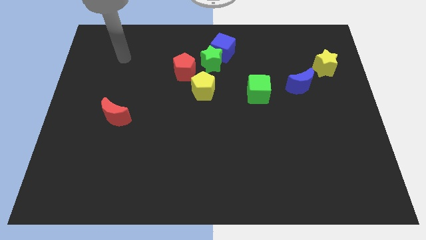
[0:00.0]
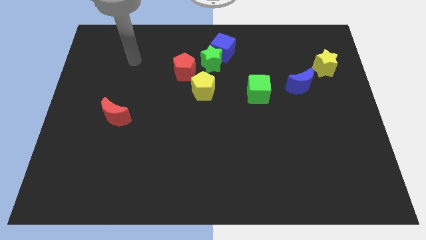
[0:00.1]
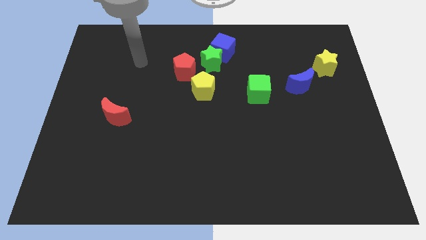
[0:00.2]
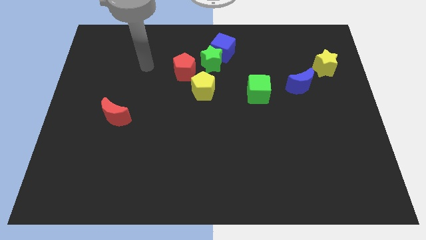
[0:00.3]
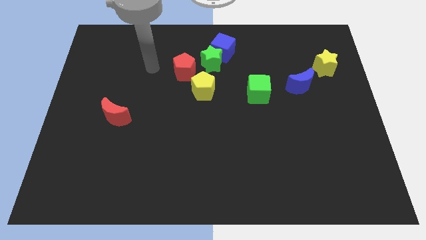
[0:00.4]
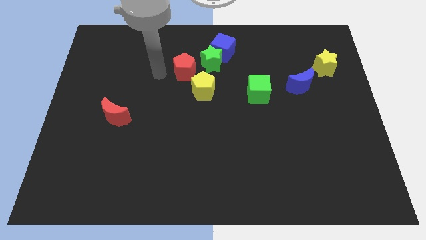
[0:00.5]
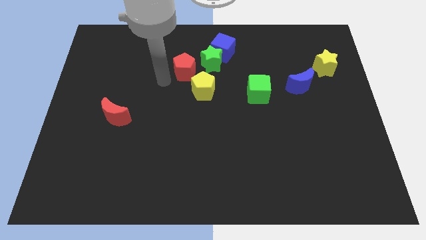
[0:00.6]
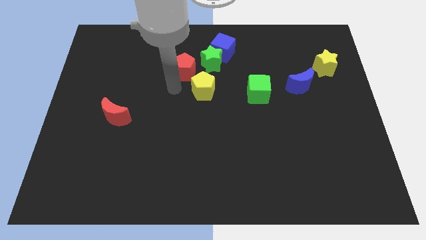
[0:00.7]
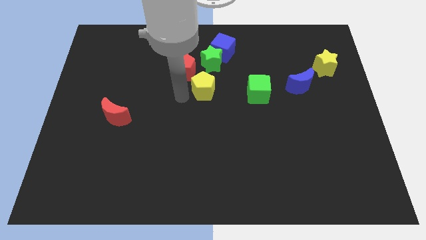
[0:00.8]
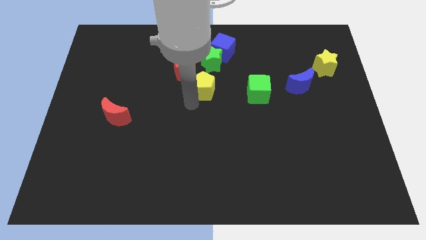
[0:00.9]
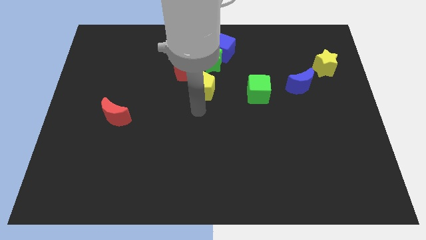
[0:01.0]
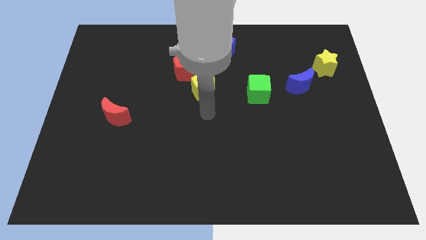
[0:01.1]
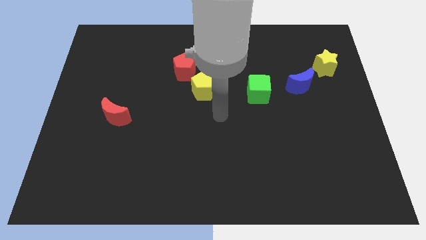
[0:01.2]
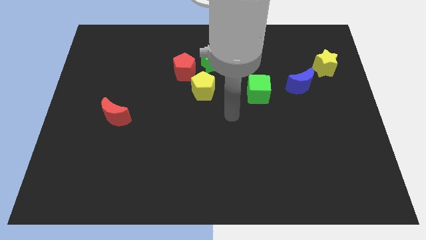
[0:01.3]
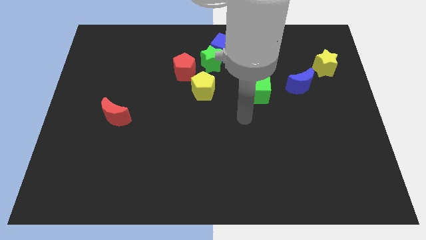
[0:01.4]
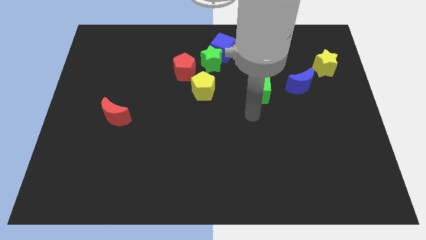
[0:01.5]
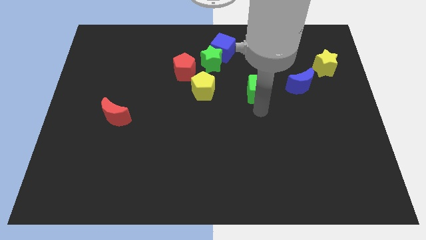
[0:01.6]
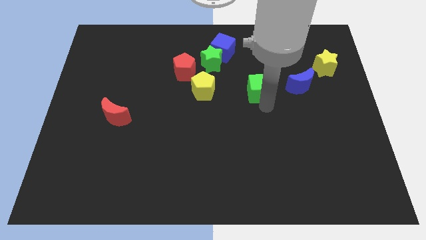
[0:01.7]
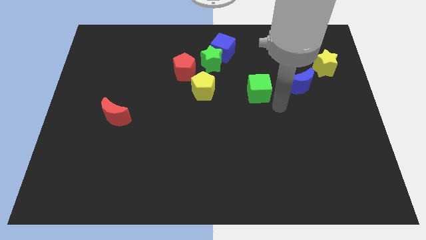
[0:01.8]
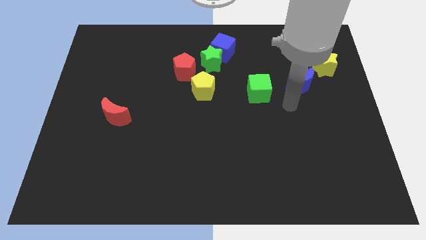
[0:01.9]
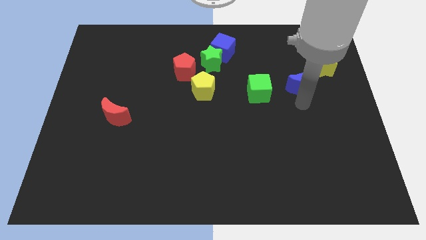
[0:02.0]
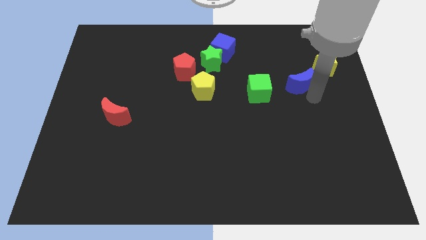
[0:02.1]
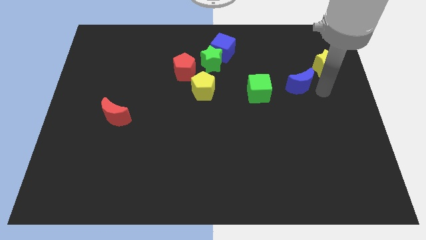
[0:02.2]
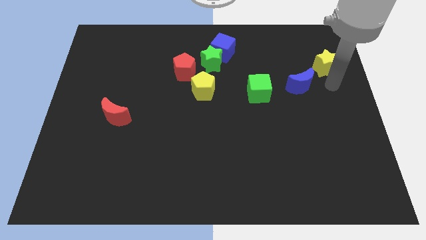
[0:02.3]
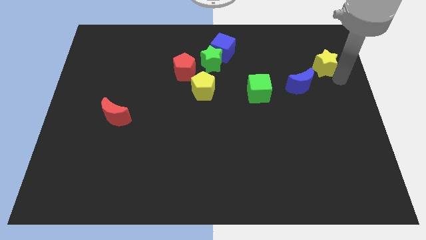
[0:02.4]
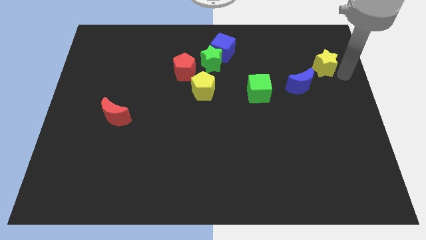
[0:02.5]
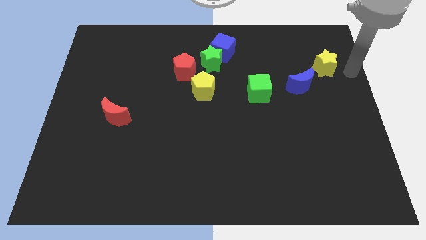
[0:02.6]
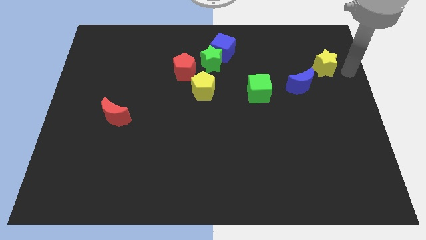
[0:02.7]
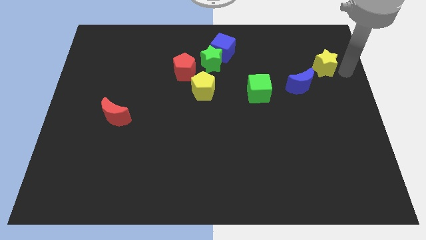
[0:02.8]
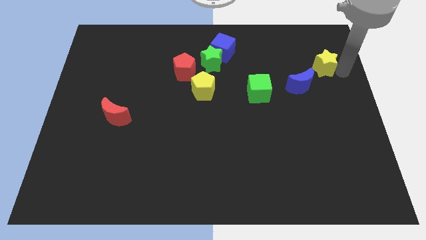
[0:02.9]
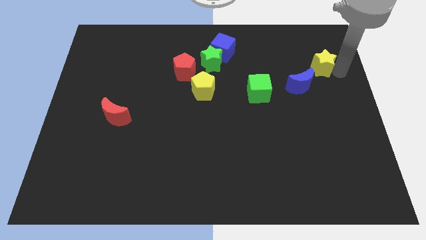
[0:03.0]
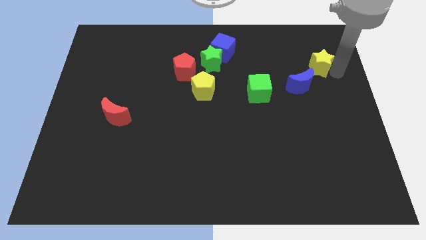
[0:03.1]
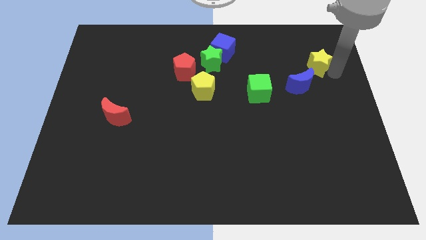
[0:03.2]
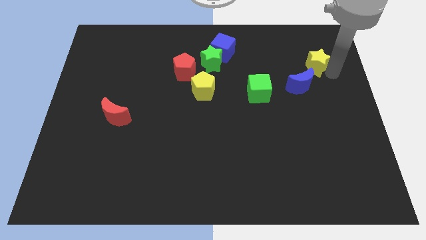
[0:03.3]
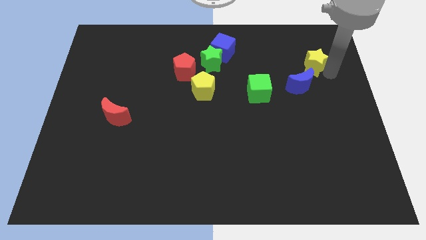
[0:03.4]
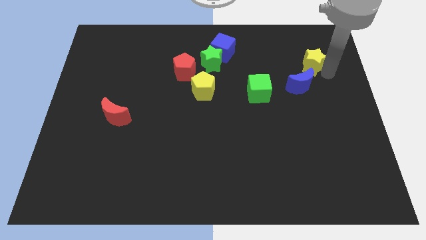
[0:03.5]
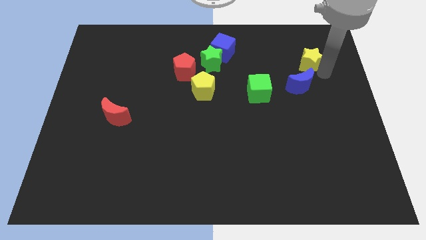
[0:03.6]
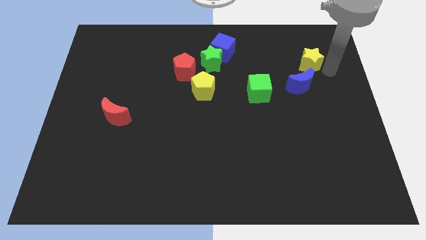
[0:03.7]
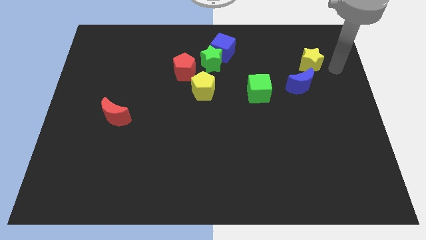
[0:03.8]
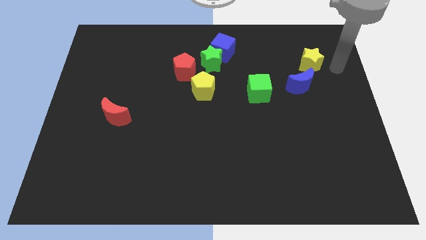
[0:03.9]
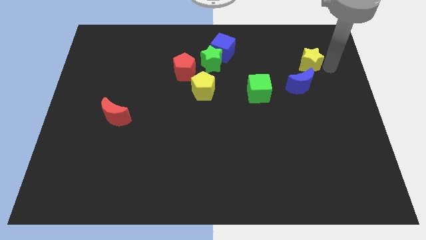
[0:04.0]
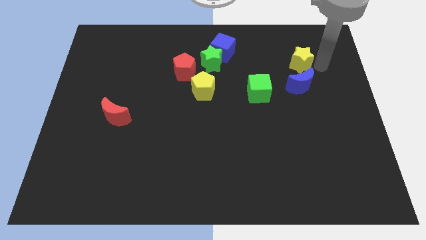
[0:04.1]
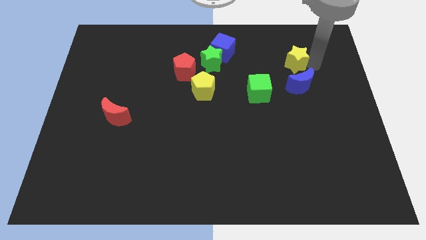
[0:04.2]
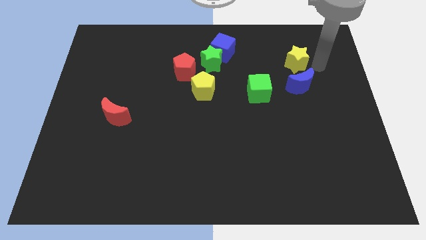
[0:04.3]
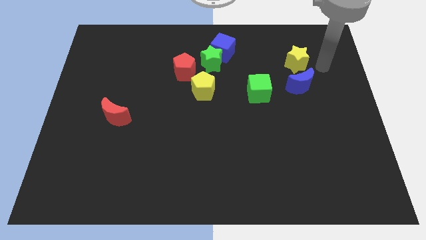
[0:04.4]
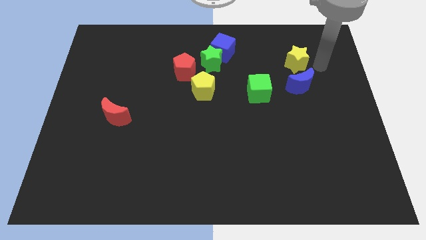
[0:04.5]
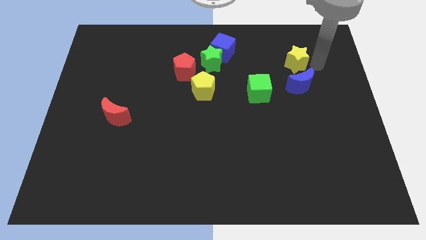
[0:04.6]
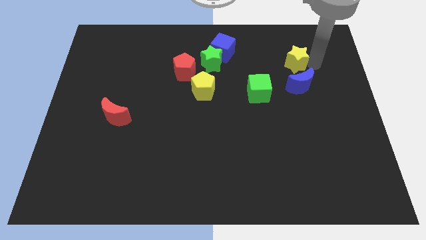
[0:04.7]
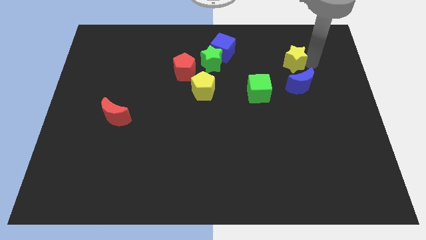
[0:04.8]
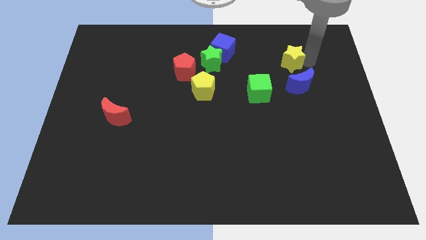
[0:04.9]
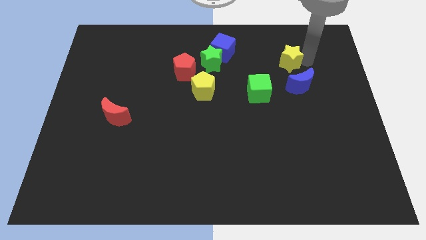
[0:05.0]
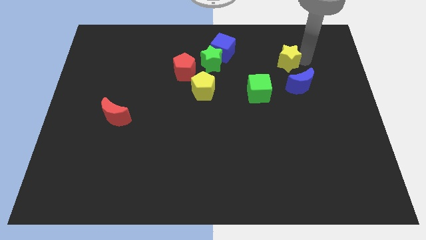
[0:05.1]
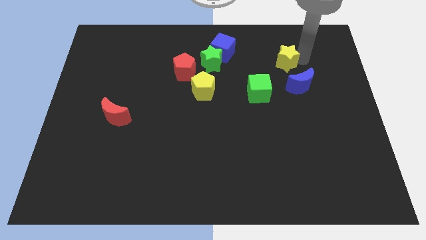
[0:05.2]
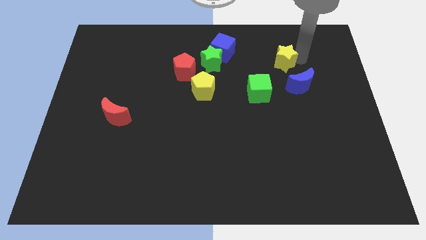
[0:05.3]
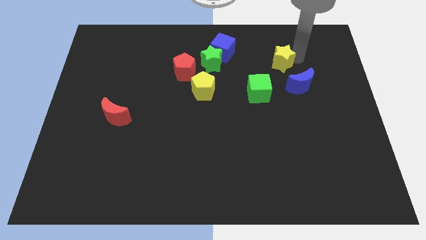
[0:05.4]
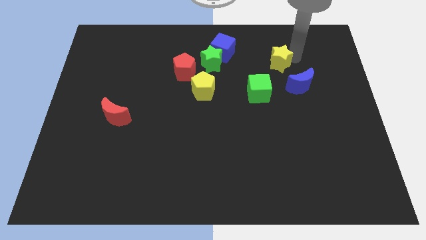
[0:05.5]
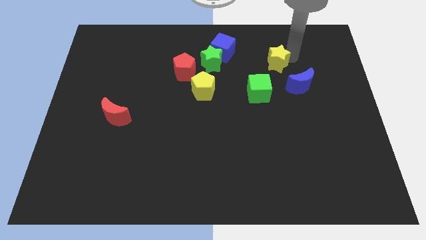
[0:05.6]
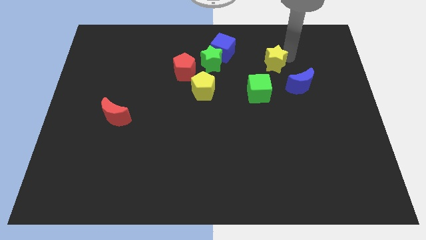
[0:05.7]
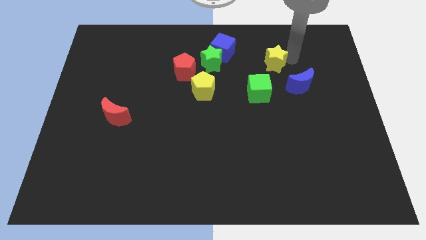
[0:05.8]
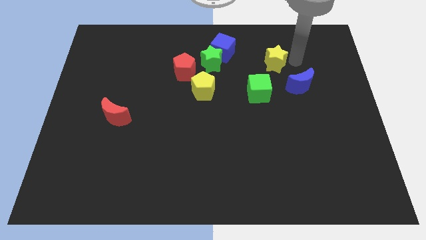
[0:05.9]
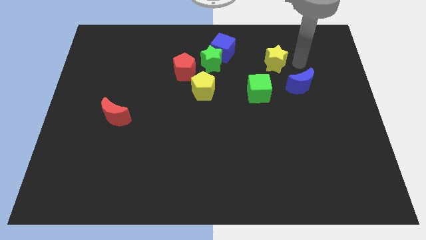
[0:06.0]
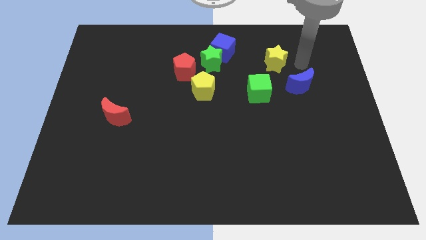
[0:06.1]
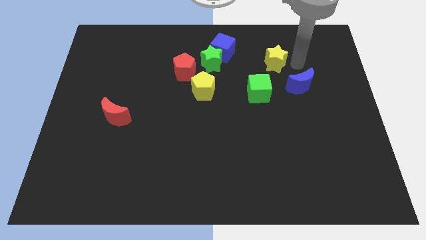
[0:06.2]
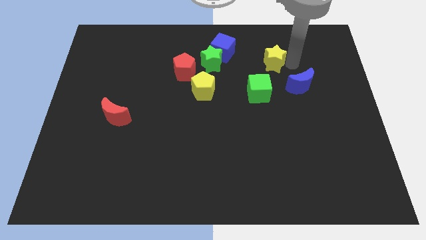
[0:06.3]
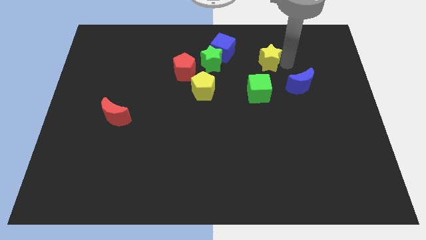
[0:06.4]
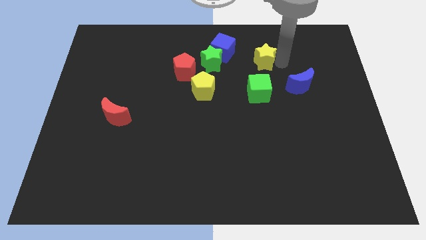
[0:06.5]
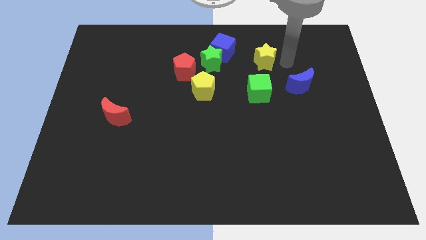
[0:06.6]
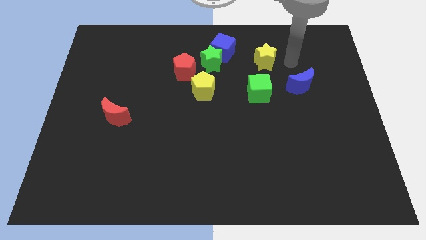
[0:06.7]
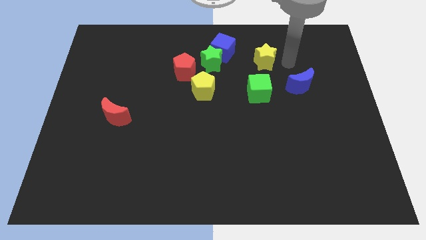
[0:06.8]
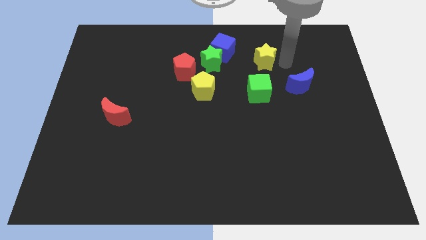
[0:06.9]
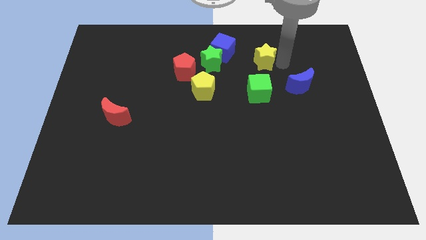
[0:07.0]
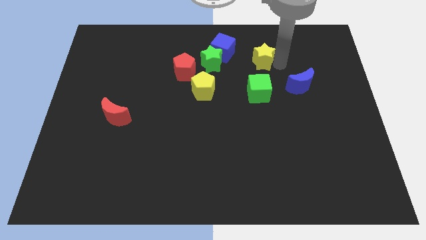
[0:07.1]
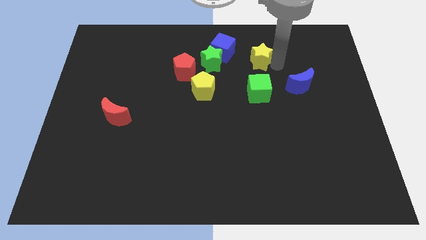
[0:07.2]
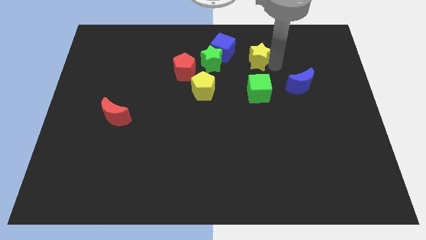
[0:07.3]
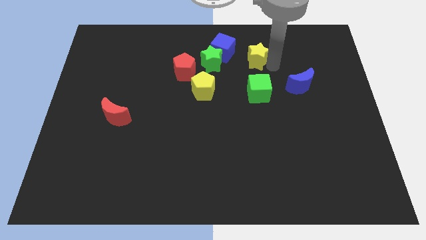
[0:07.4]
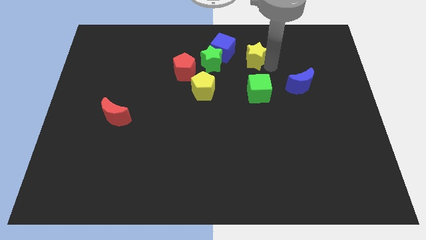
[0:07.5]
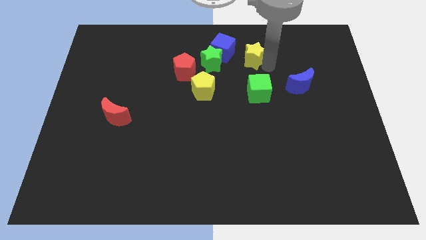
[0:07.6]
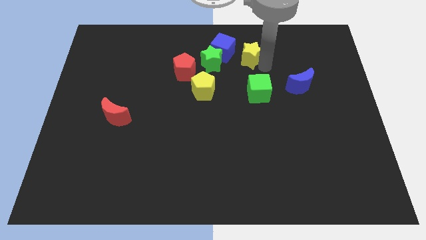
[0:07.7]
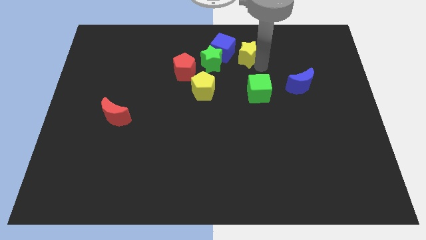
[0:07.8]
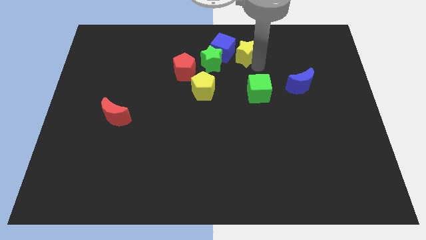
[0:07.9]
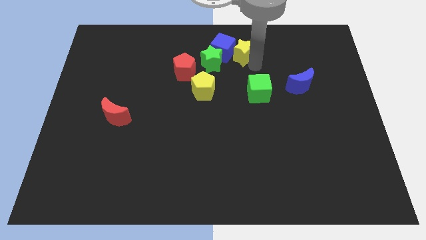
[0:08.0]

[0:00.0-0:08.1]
slide the yellow star to the blue cube
